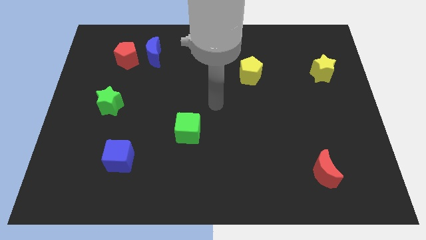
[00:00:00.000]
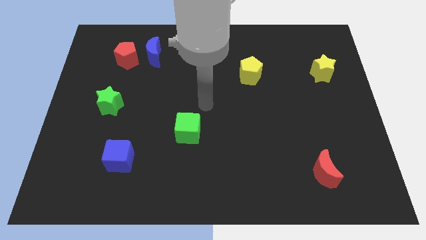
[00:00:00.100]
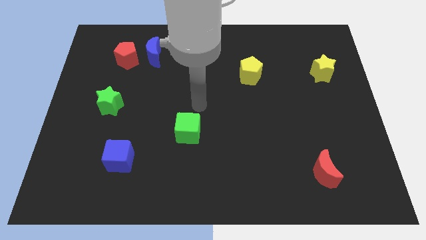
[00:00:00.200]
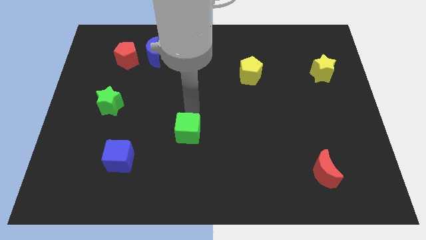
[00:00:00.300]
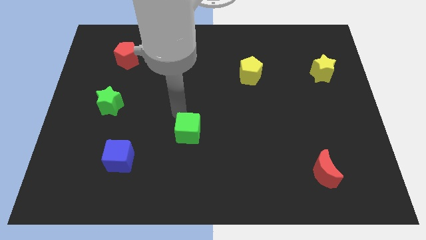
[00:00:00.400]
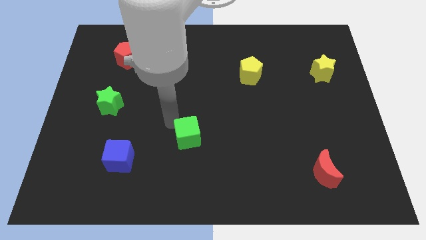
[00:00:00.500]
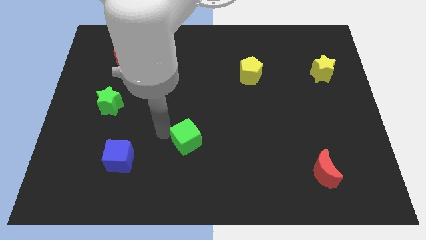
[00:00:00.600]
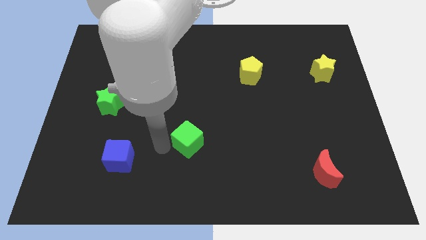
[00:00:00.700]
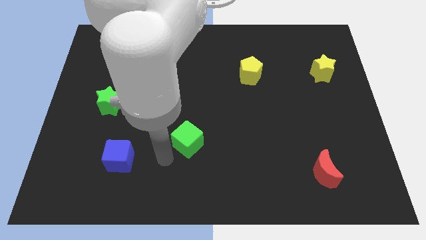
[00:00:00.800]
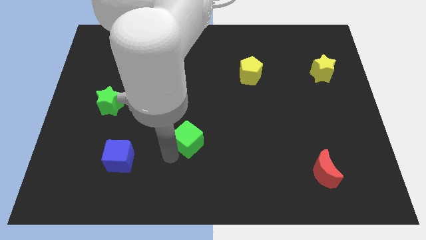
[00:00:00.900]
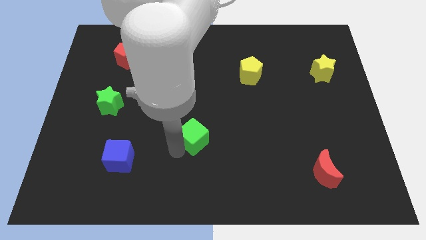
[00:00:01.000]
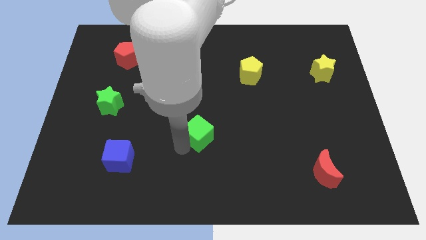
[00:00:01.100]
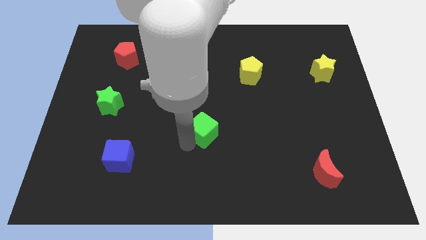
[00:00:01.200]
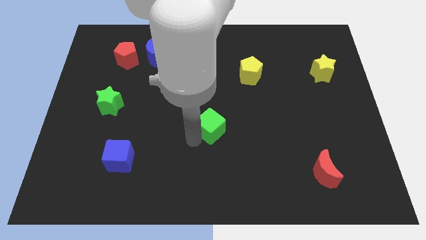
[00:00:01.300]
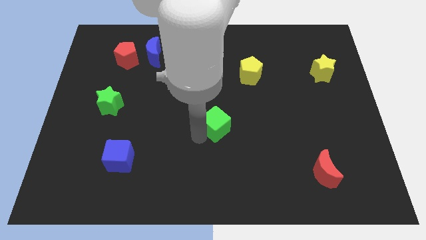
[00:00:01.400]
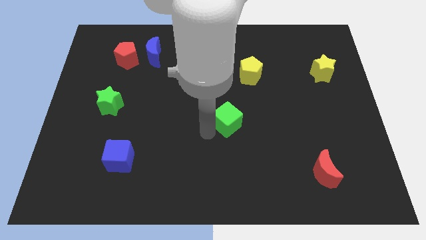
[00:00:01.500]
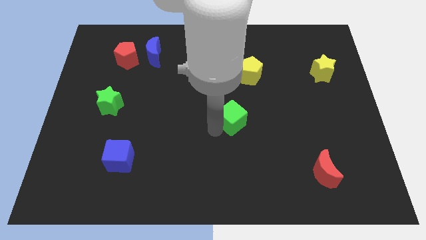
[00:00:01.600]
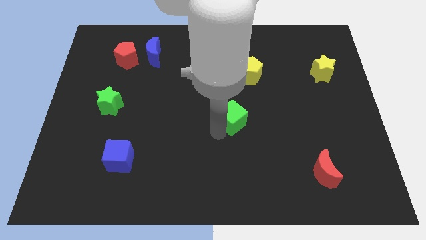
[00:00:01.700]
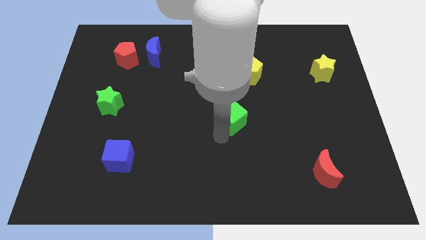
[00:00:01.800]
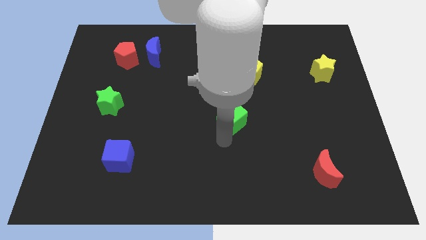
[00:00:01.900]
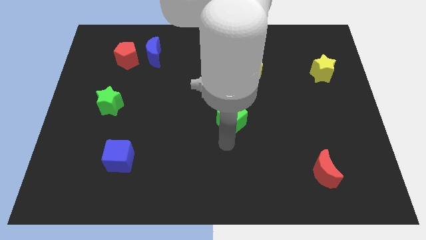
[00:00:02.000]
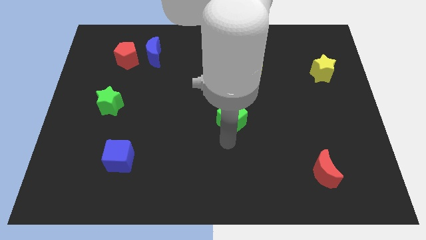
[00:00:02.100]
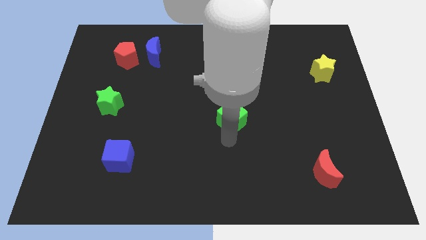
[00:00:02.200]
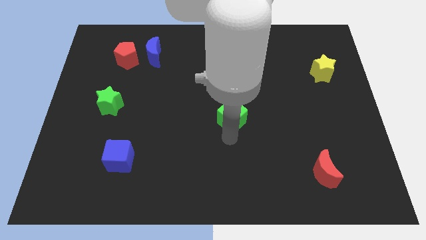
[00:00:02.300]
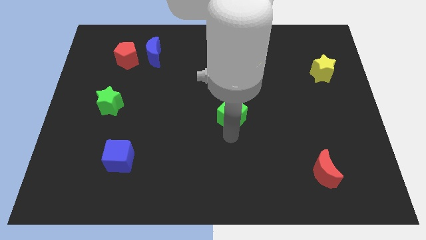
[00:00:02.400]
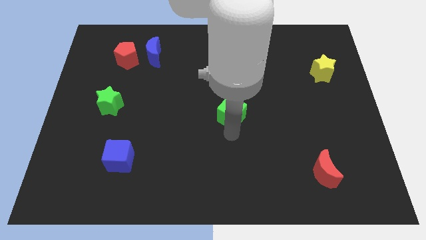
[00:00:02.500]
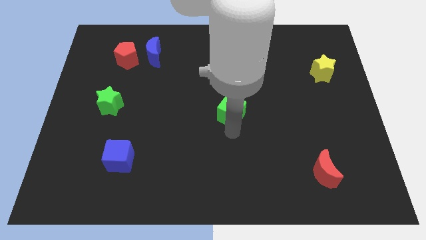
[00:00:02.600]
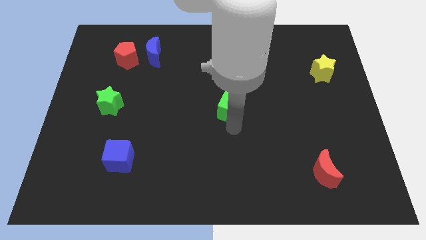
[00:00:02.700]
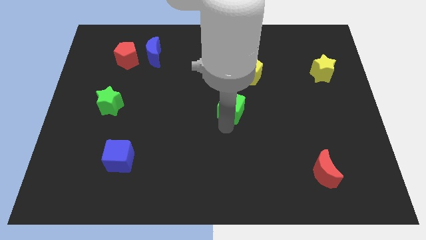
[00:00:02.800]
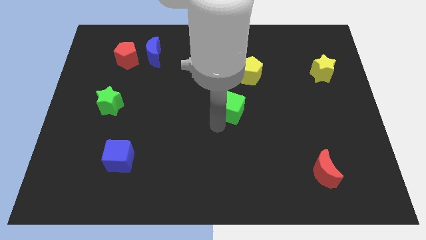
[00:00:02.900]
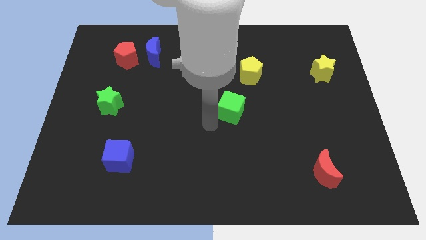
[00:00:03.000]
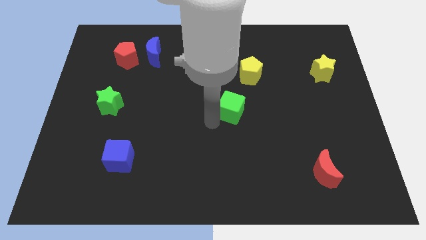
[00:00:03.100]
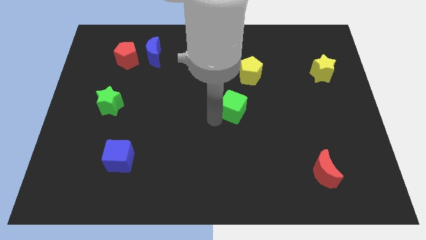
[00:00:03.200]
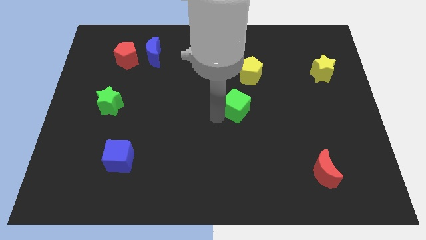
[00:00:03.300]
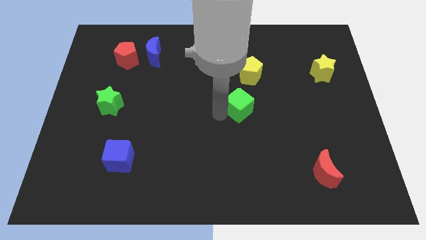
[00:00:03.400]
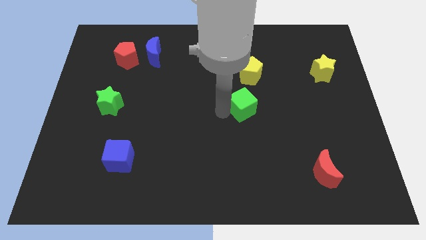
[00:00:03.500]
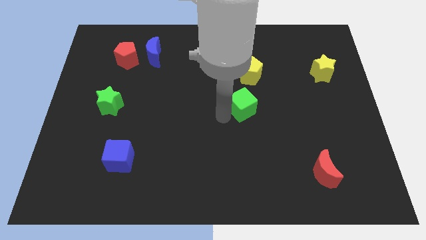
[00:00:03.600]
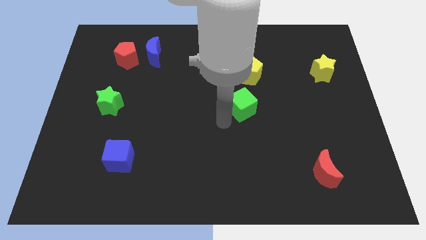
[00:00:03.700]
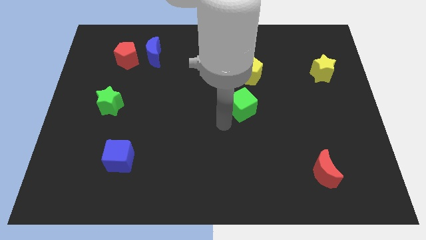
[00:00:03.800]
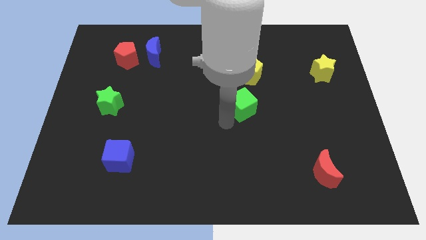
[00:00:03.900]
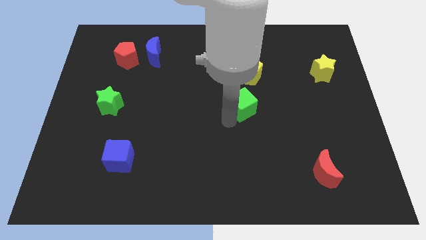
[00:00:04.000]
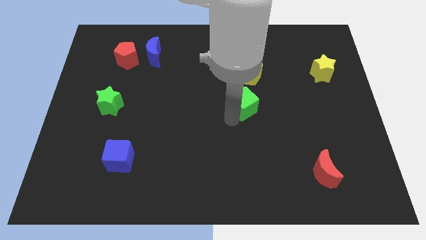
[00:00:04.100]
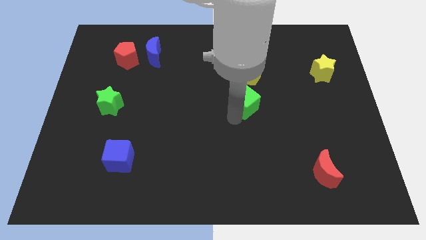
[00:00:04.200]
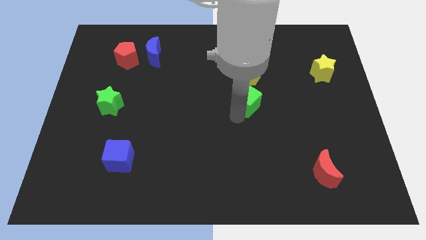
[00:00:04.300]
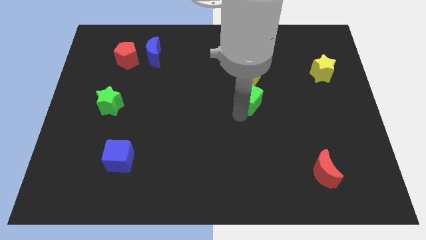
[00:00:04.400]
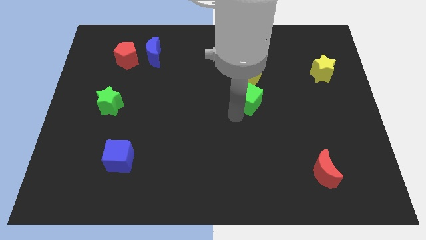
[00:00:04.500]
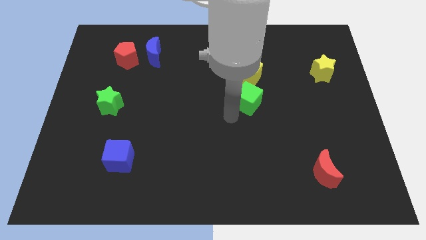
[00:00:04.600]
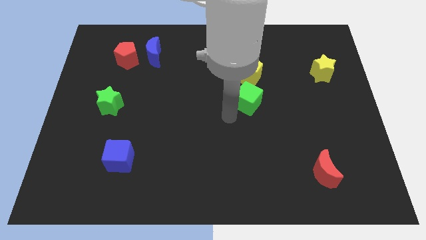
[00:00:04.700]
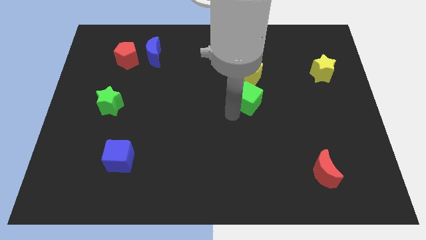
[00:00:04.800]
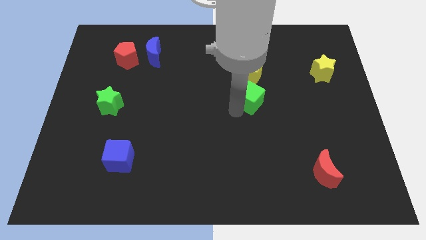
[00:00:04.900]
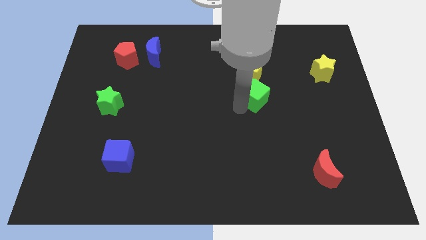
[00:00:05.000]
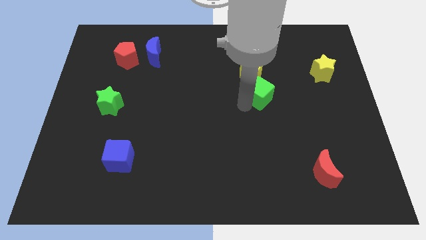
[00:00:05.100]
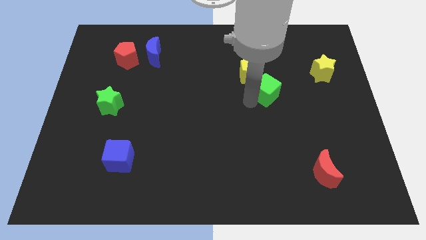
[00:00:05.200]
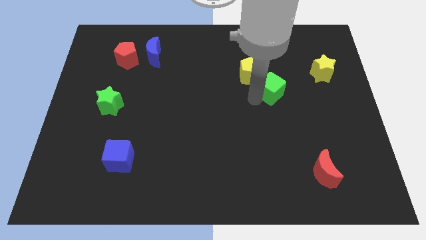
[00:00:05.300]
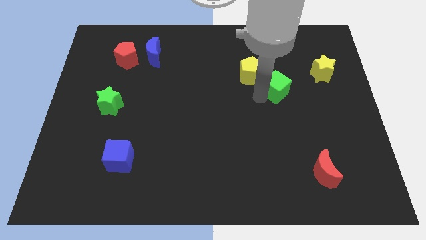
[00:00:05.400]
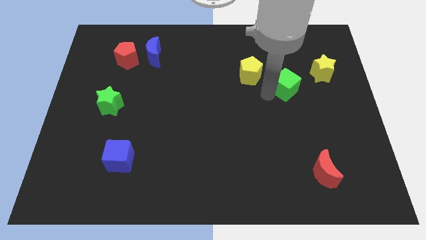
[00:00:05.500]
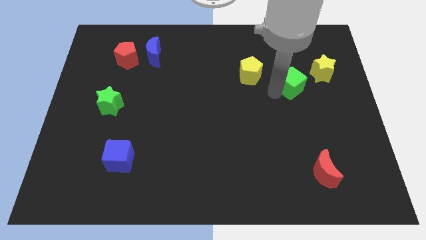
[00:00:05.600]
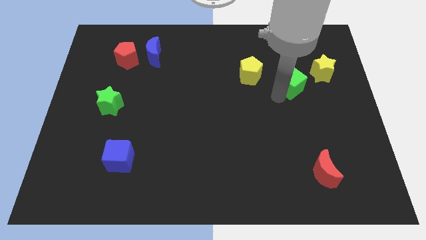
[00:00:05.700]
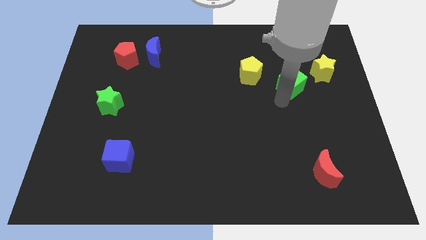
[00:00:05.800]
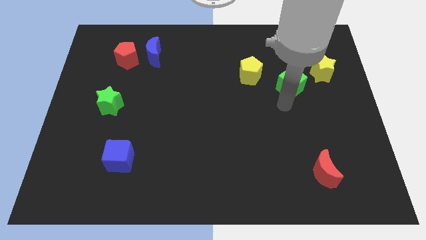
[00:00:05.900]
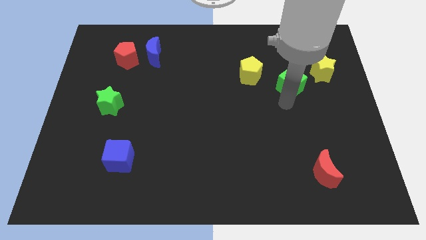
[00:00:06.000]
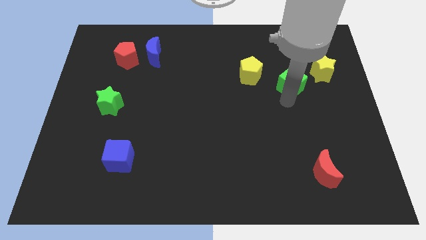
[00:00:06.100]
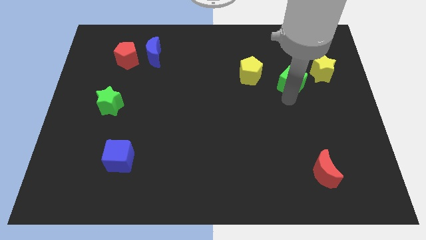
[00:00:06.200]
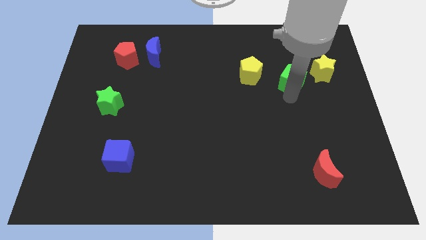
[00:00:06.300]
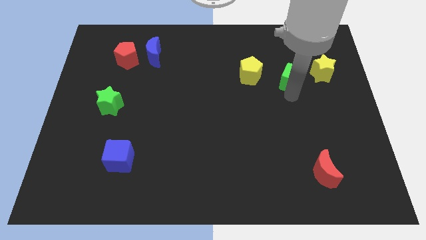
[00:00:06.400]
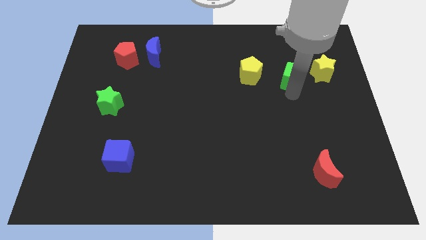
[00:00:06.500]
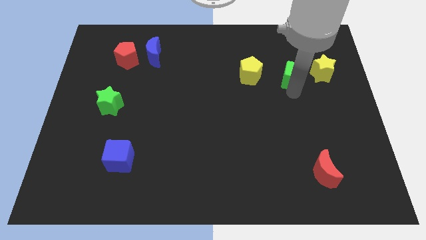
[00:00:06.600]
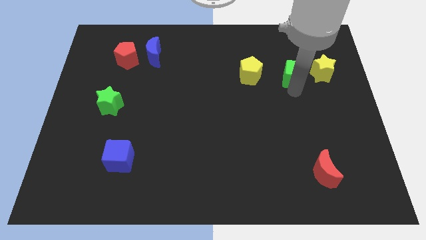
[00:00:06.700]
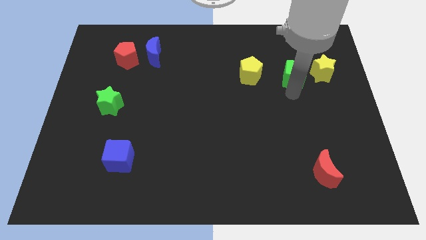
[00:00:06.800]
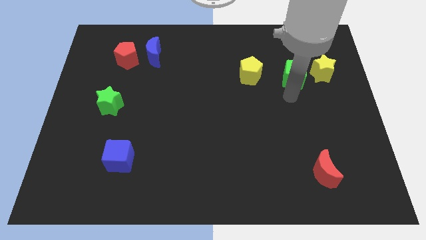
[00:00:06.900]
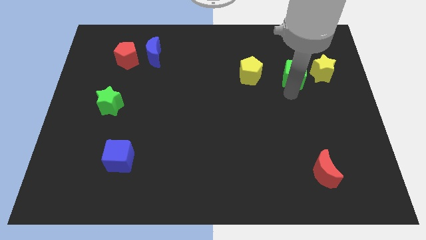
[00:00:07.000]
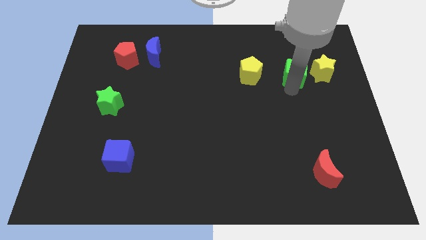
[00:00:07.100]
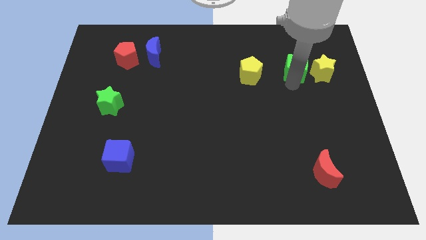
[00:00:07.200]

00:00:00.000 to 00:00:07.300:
put the green cube to the top left side of the yellow star

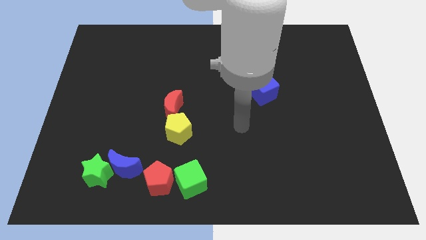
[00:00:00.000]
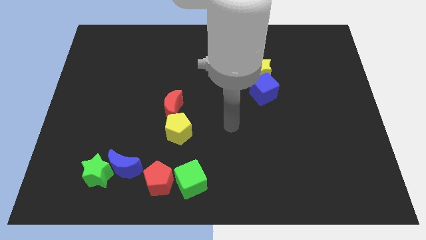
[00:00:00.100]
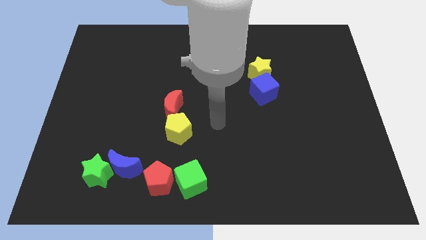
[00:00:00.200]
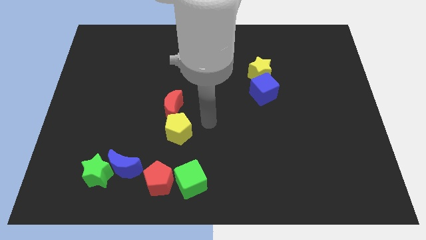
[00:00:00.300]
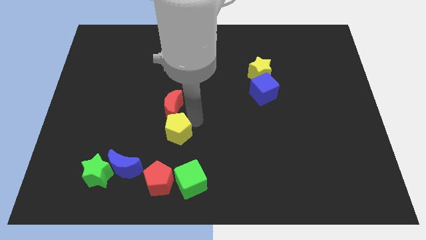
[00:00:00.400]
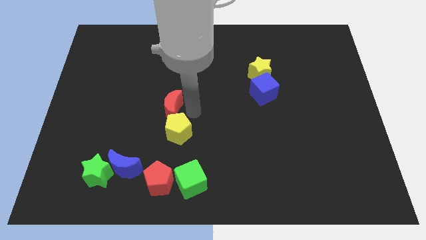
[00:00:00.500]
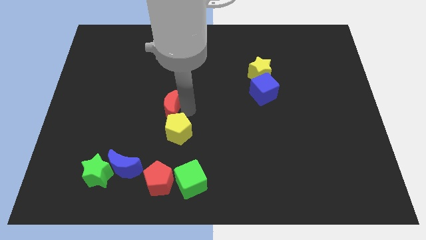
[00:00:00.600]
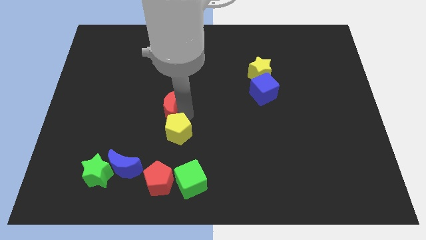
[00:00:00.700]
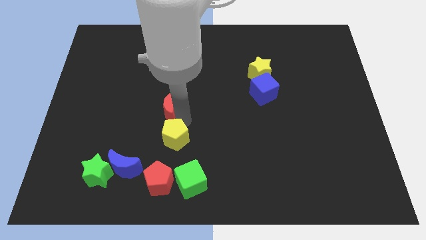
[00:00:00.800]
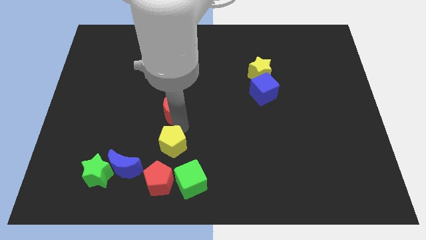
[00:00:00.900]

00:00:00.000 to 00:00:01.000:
slide the yellow pentagon to the top left side of the green cube
